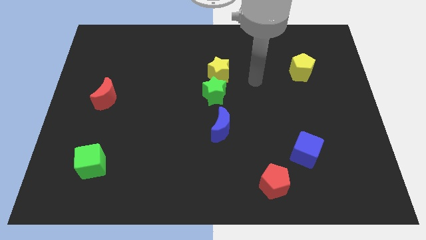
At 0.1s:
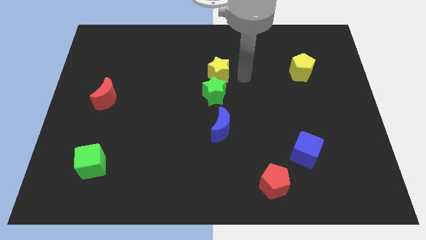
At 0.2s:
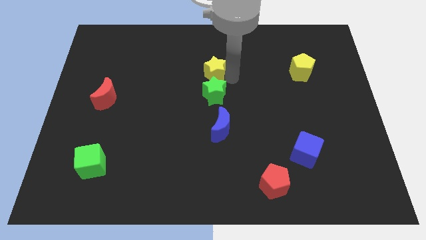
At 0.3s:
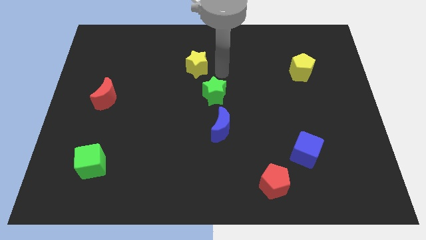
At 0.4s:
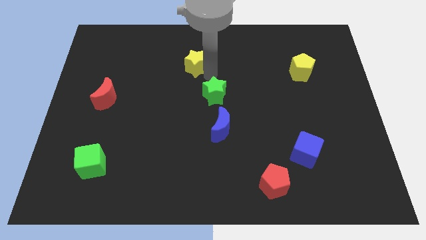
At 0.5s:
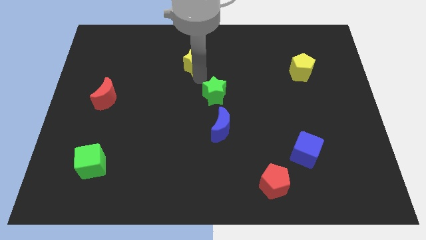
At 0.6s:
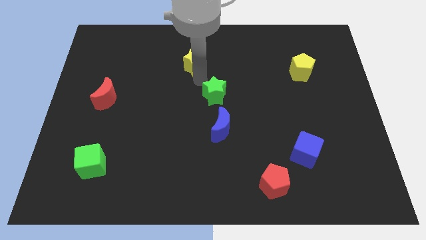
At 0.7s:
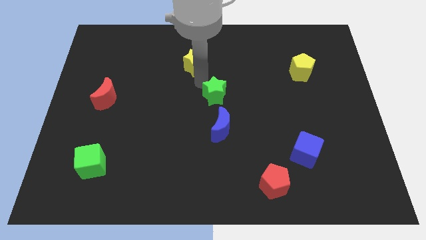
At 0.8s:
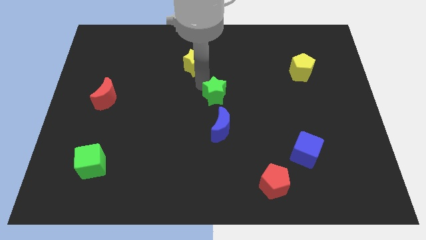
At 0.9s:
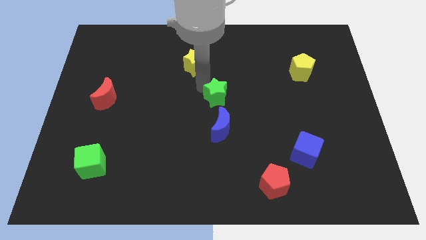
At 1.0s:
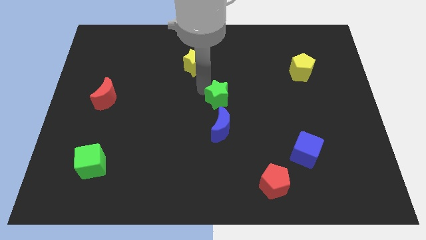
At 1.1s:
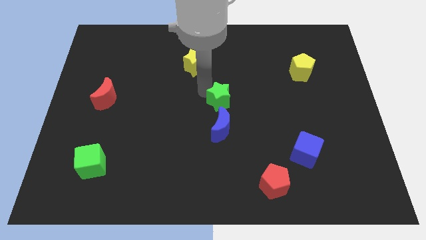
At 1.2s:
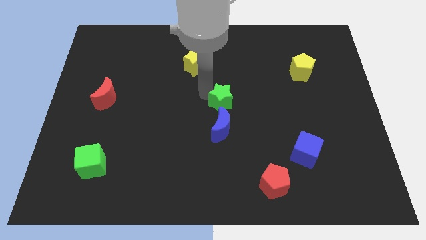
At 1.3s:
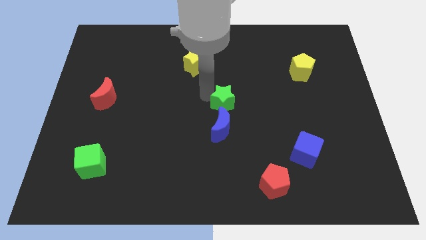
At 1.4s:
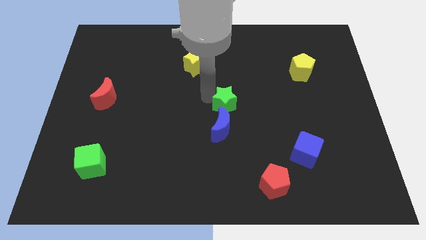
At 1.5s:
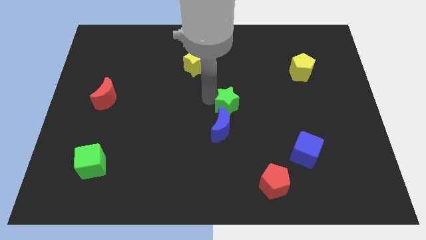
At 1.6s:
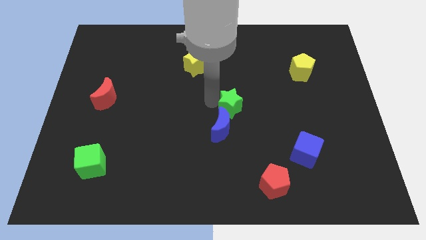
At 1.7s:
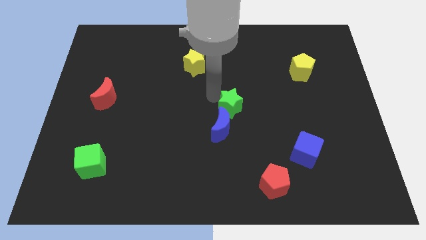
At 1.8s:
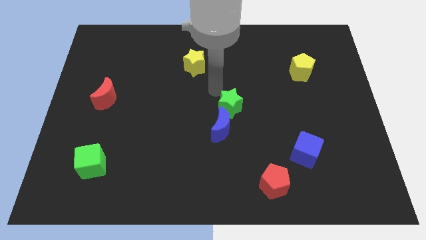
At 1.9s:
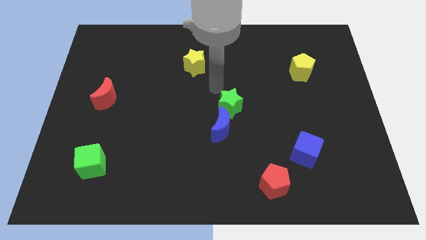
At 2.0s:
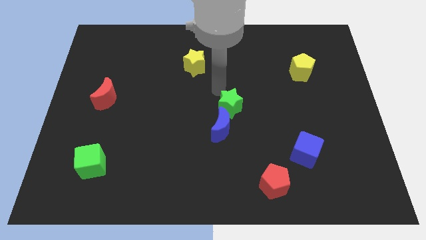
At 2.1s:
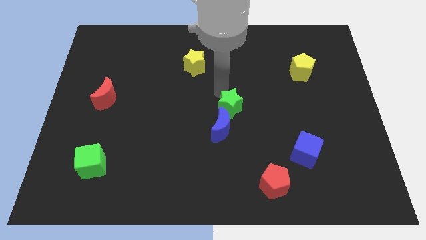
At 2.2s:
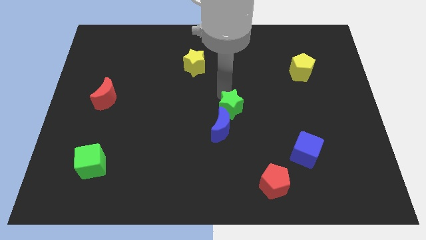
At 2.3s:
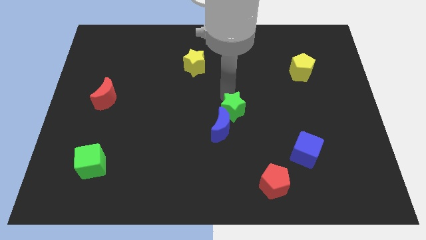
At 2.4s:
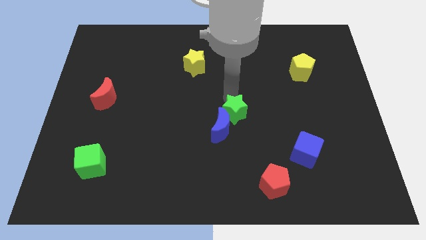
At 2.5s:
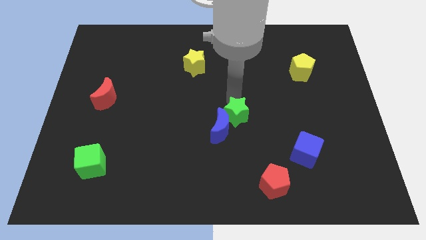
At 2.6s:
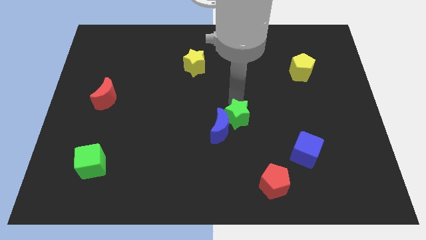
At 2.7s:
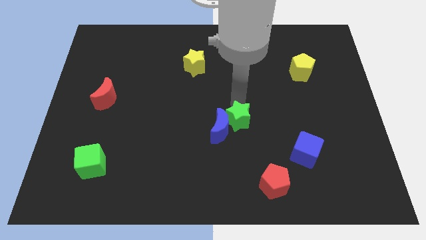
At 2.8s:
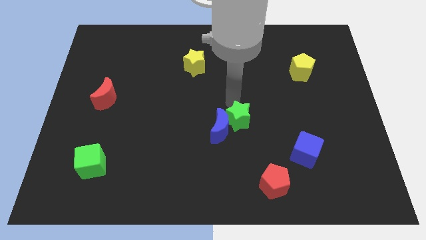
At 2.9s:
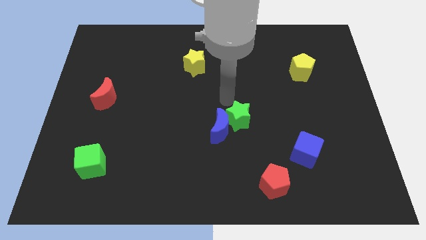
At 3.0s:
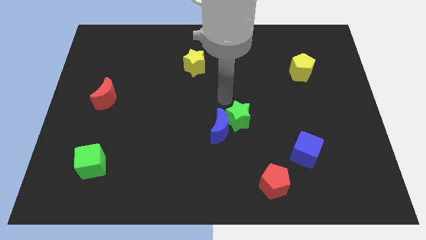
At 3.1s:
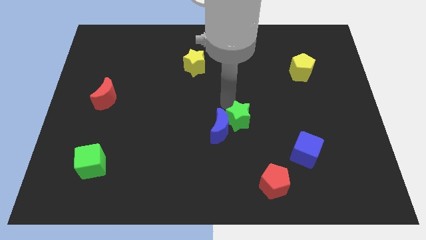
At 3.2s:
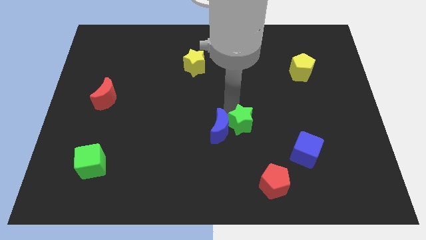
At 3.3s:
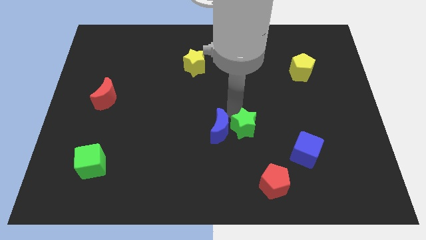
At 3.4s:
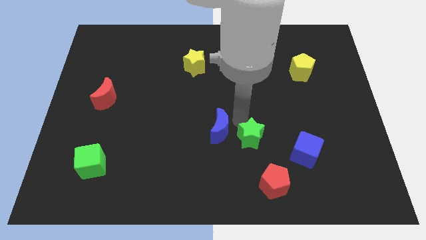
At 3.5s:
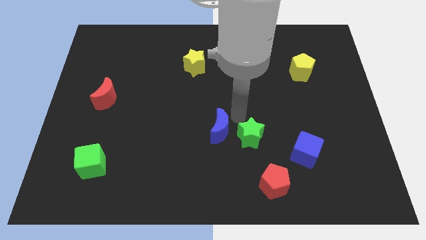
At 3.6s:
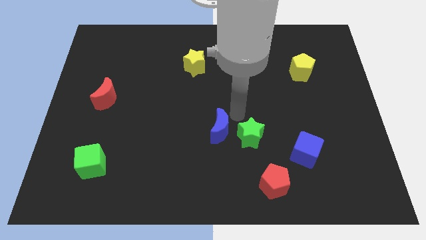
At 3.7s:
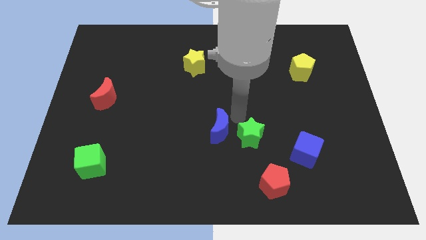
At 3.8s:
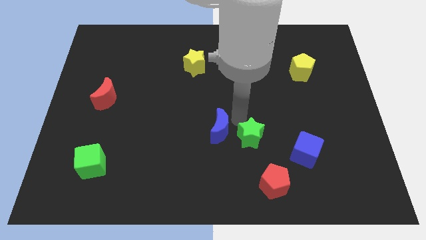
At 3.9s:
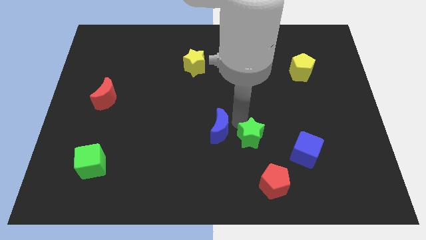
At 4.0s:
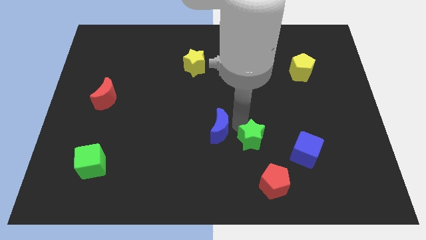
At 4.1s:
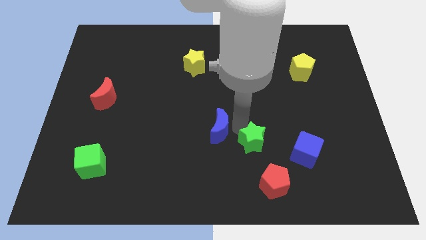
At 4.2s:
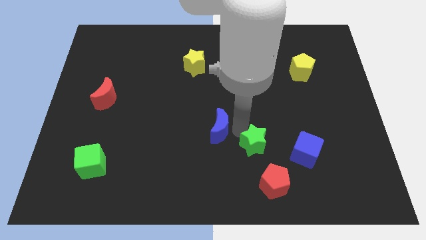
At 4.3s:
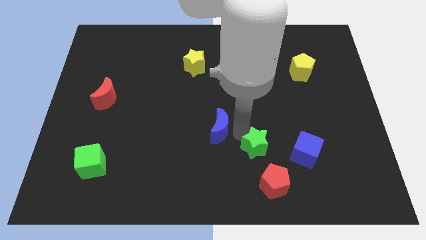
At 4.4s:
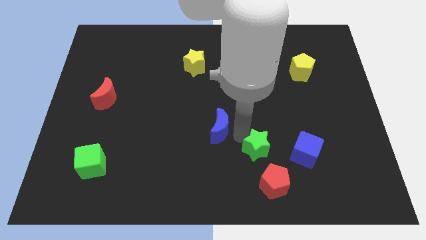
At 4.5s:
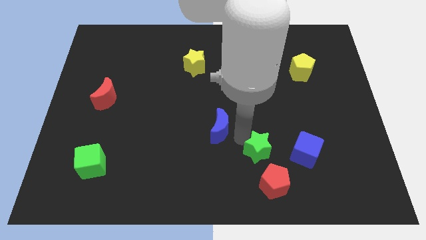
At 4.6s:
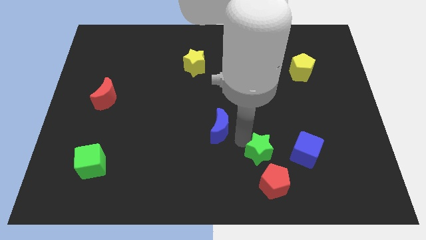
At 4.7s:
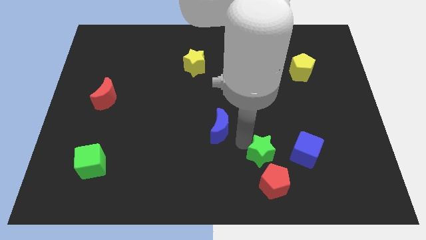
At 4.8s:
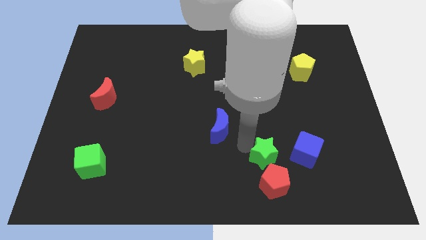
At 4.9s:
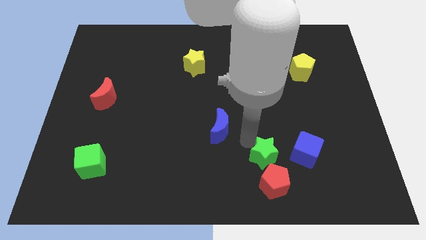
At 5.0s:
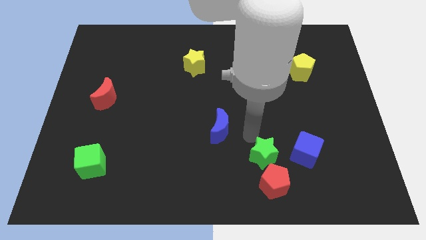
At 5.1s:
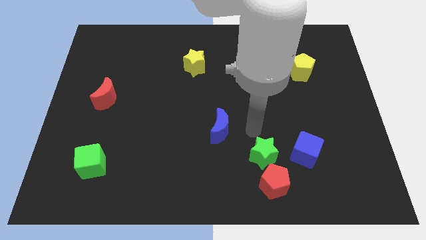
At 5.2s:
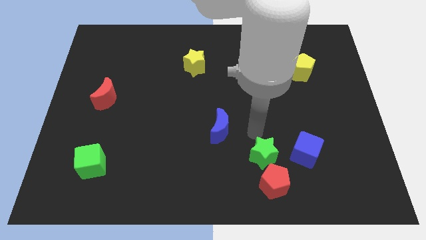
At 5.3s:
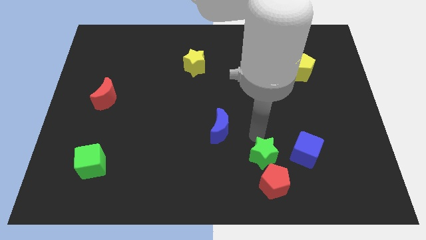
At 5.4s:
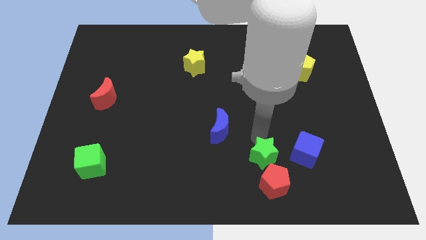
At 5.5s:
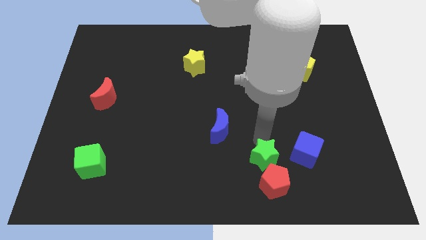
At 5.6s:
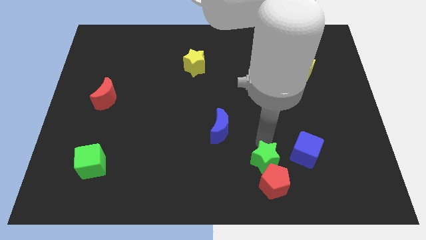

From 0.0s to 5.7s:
put the green star next to the red pentagon

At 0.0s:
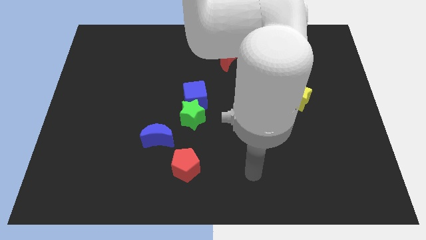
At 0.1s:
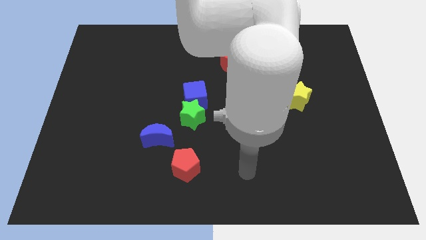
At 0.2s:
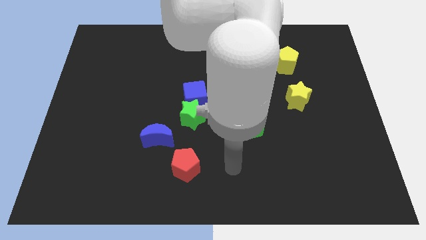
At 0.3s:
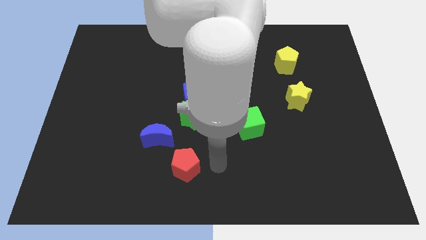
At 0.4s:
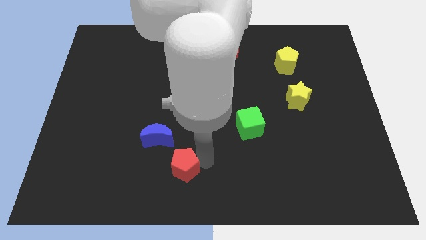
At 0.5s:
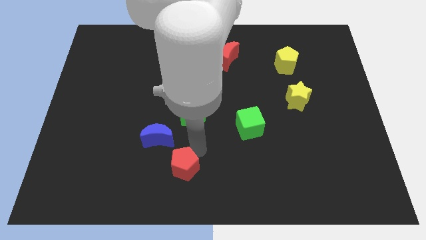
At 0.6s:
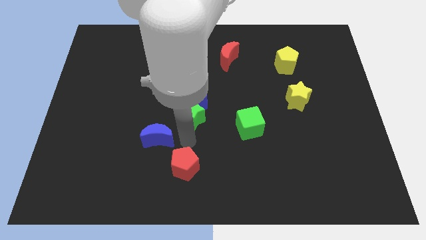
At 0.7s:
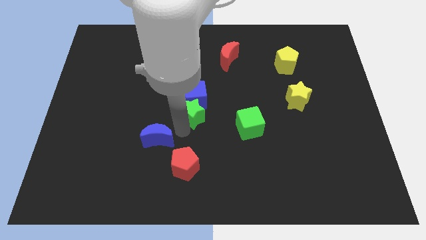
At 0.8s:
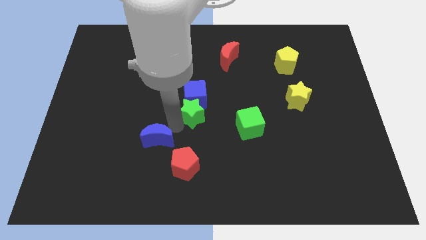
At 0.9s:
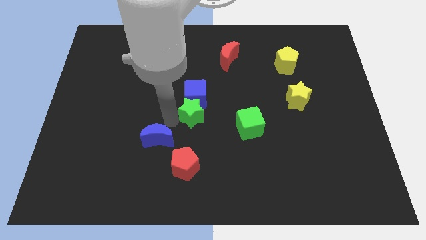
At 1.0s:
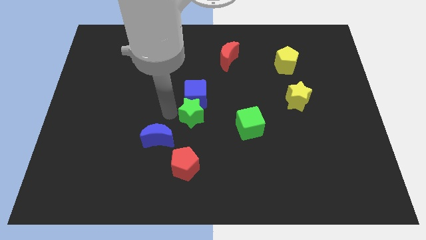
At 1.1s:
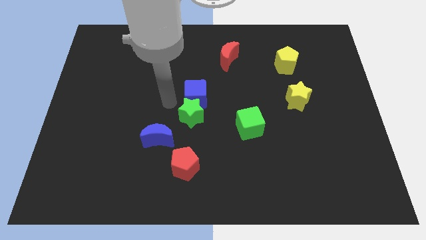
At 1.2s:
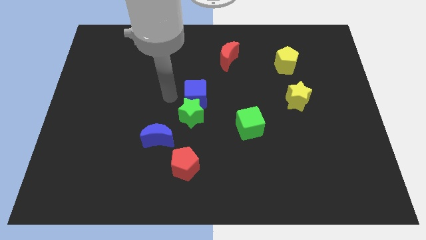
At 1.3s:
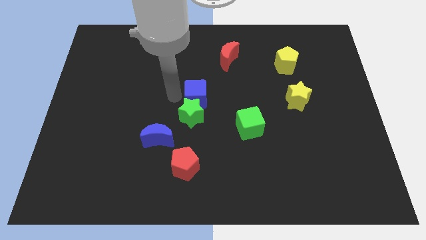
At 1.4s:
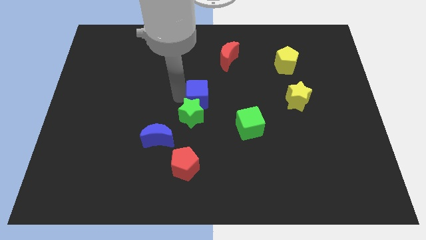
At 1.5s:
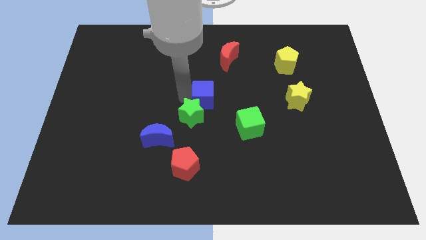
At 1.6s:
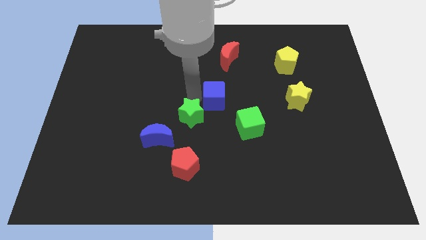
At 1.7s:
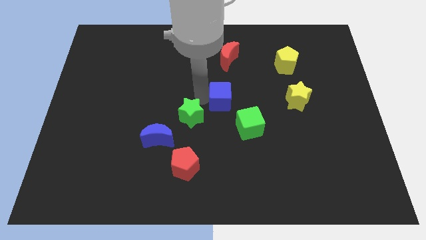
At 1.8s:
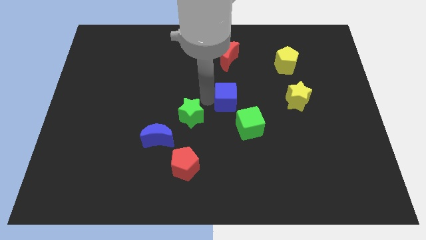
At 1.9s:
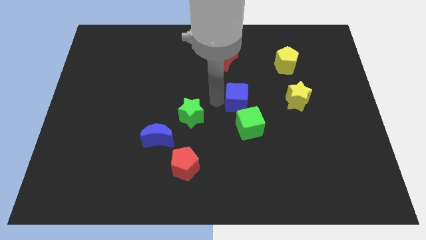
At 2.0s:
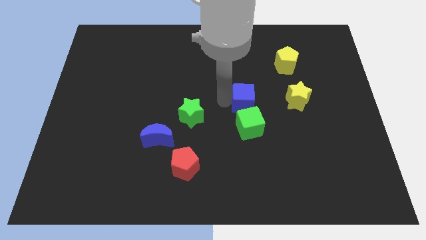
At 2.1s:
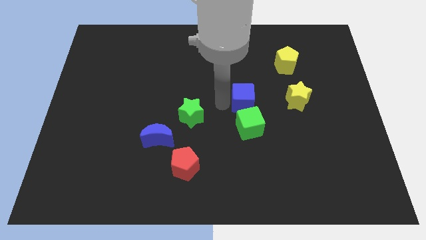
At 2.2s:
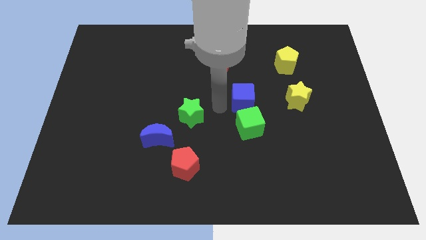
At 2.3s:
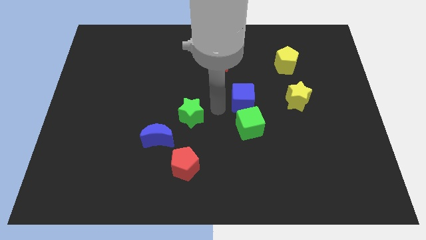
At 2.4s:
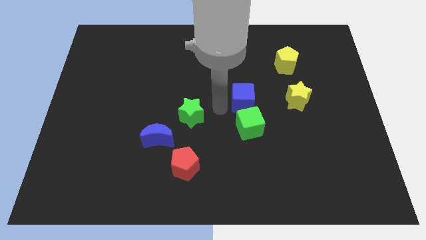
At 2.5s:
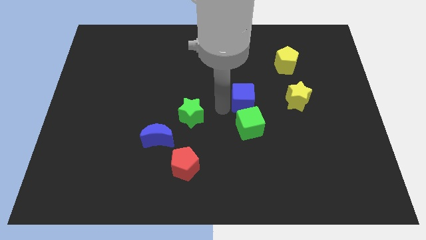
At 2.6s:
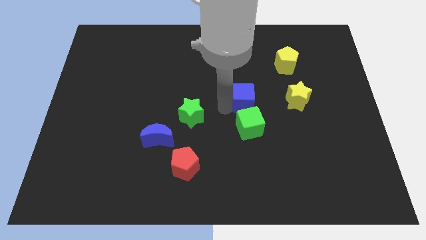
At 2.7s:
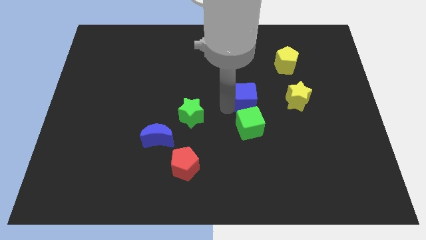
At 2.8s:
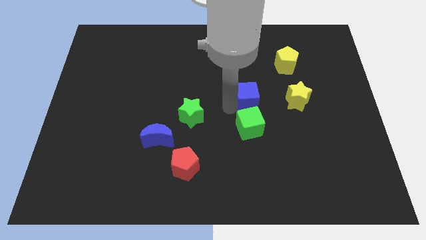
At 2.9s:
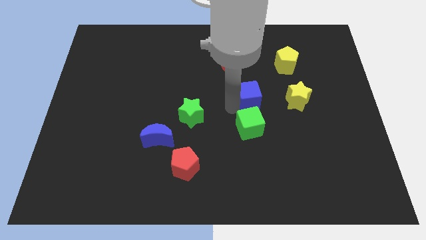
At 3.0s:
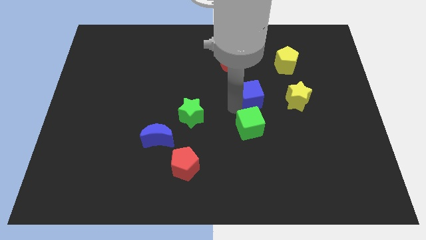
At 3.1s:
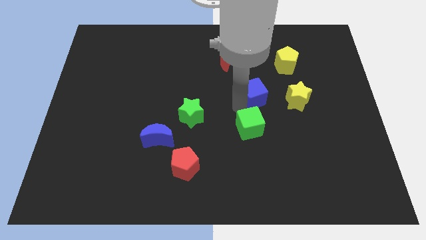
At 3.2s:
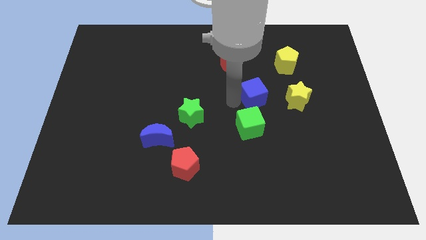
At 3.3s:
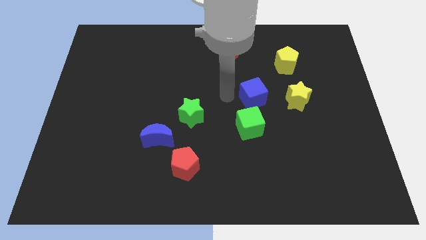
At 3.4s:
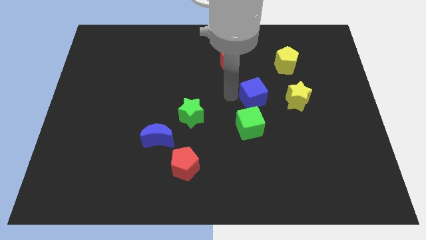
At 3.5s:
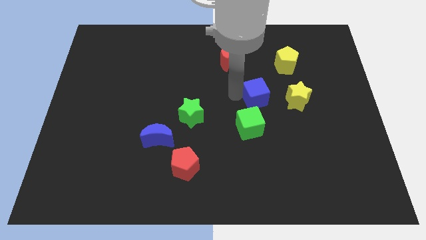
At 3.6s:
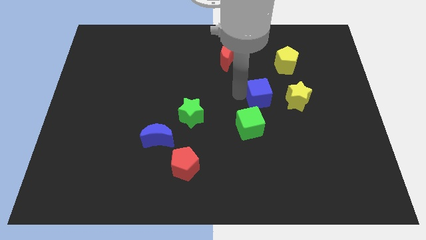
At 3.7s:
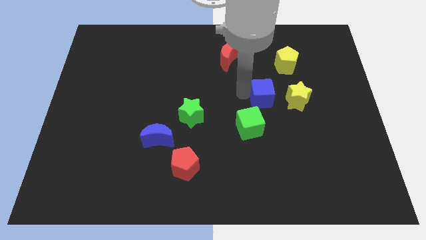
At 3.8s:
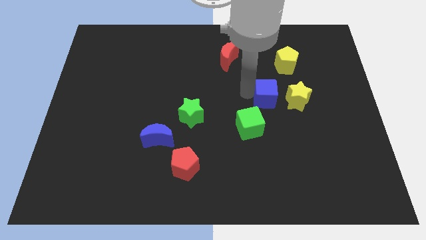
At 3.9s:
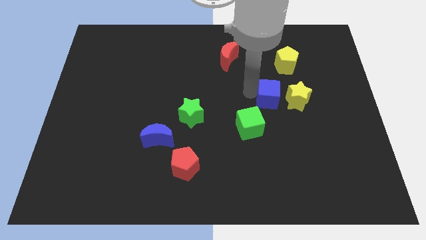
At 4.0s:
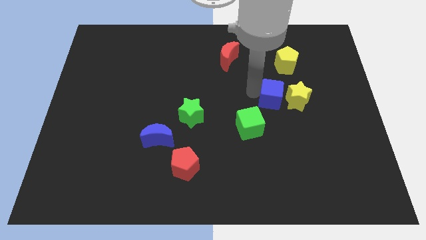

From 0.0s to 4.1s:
slide the blue cube to the yellow star
